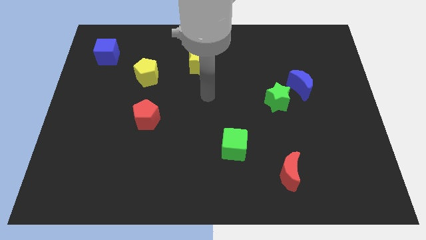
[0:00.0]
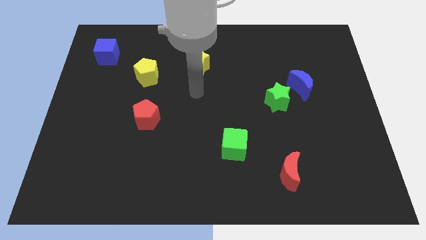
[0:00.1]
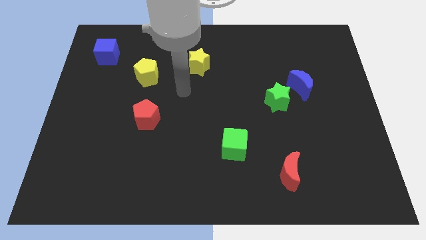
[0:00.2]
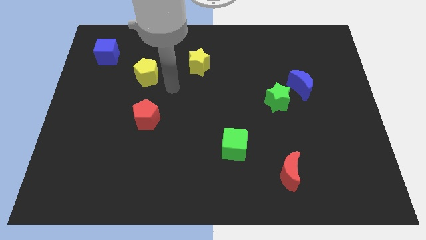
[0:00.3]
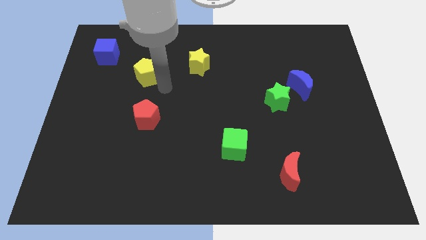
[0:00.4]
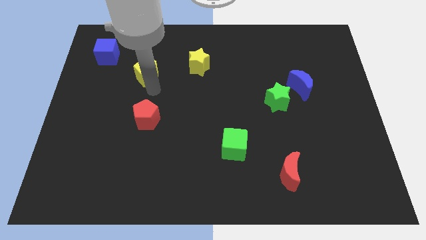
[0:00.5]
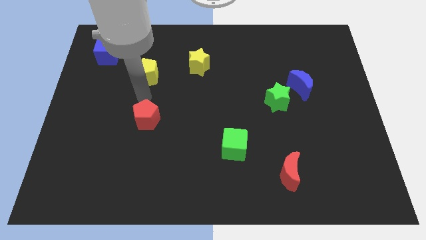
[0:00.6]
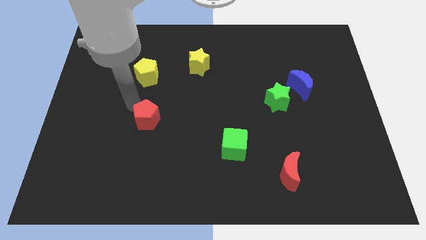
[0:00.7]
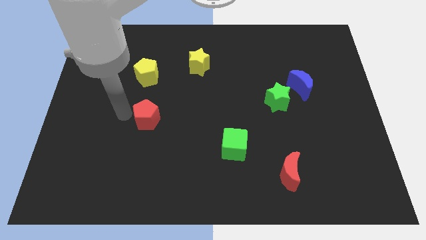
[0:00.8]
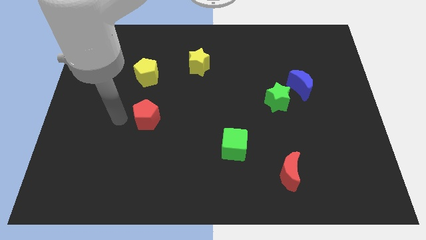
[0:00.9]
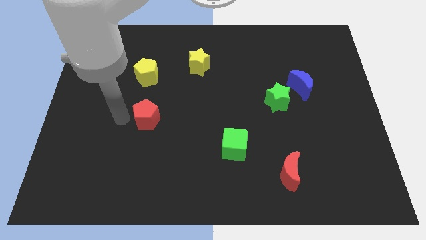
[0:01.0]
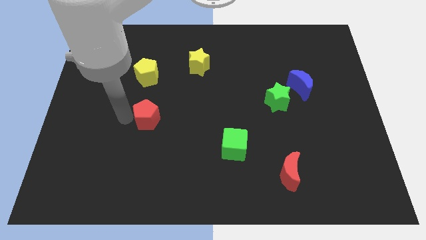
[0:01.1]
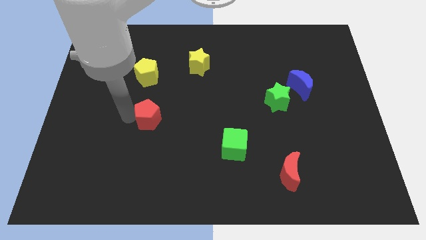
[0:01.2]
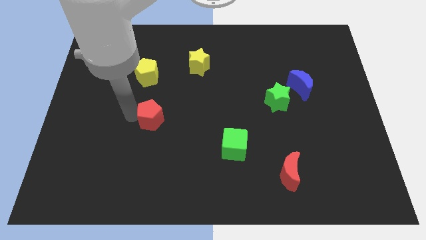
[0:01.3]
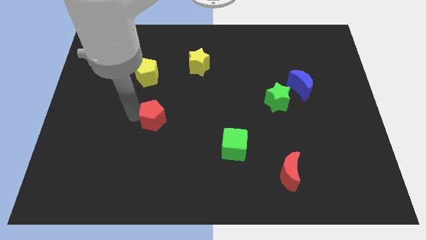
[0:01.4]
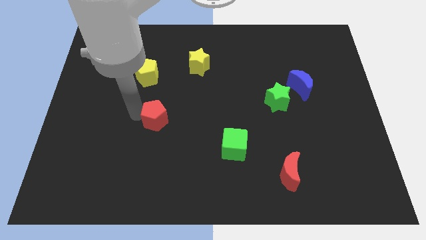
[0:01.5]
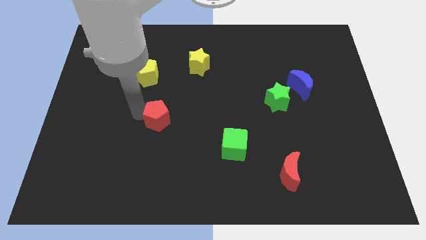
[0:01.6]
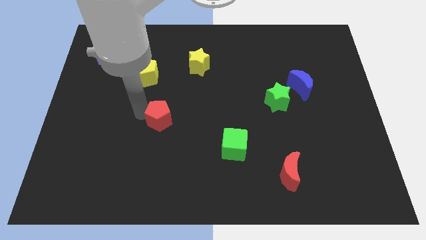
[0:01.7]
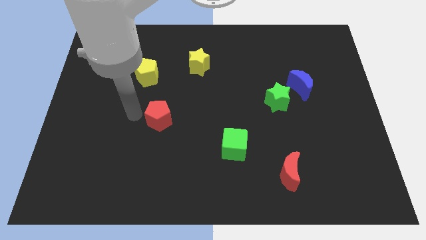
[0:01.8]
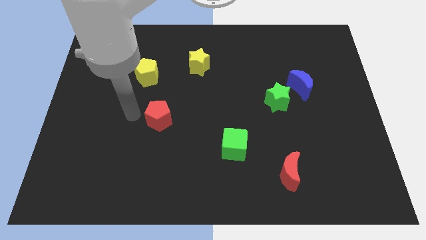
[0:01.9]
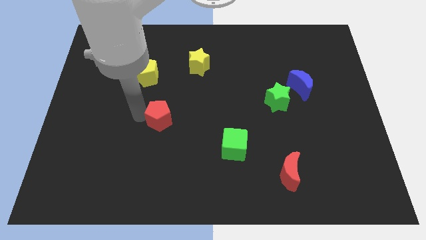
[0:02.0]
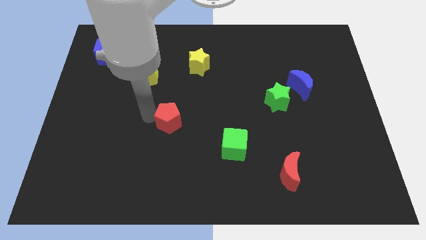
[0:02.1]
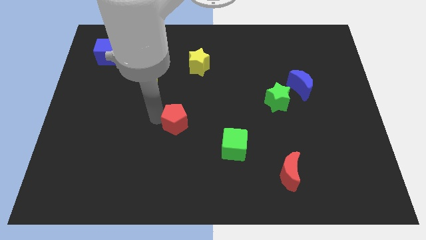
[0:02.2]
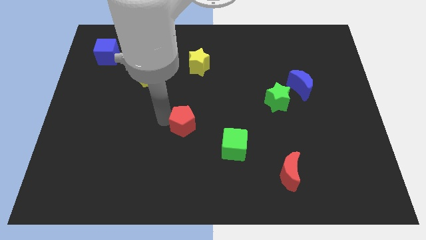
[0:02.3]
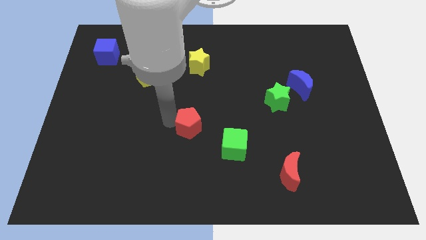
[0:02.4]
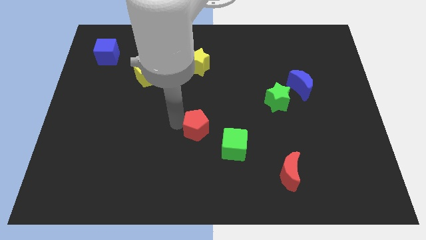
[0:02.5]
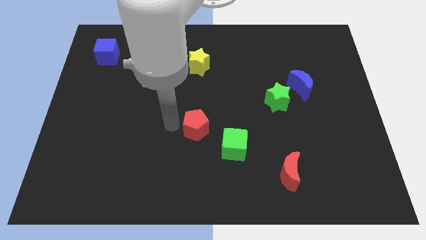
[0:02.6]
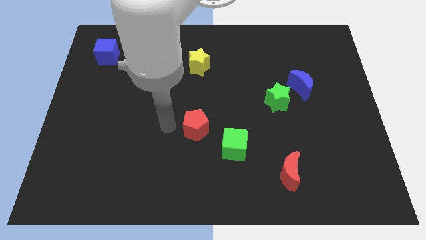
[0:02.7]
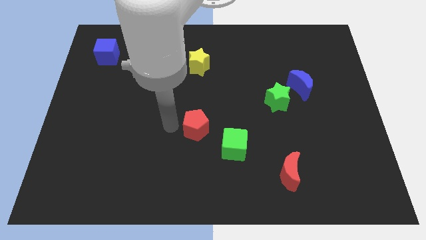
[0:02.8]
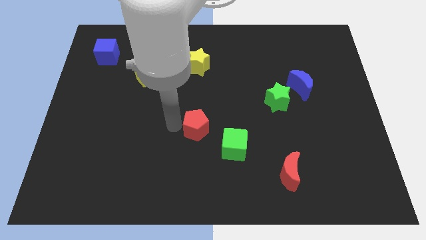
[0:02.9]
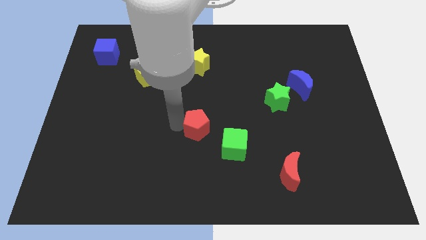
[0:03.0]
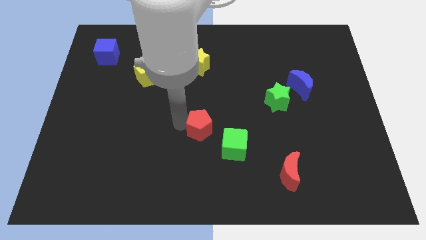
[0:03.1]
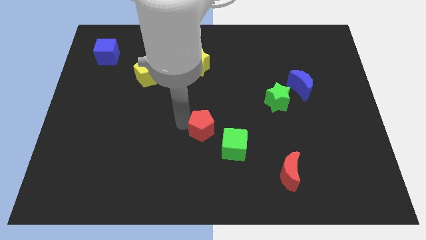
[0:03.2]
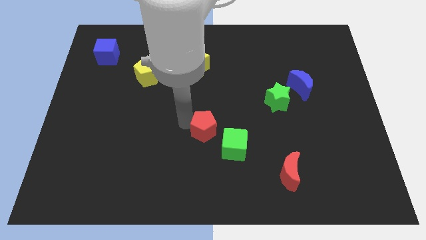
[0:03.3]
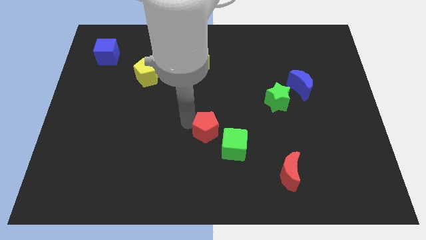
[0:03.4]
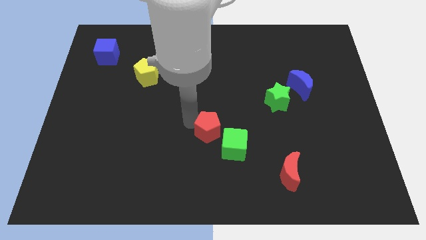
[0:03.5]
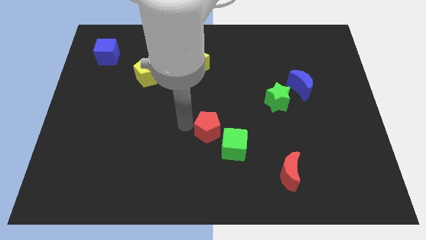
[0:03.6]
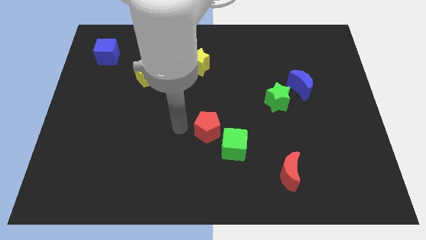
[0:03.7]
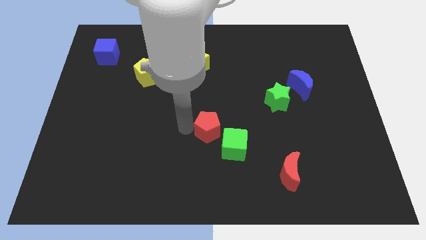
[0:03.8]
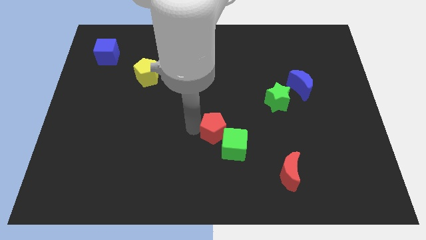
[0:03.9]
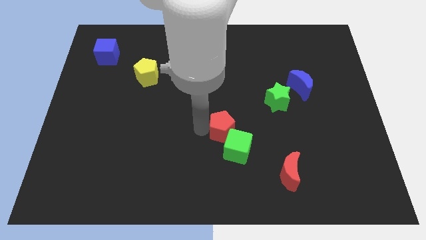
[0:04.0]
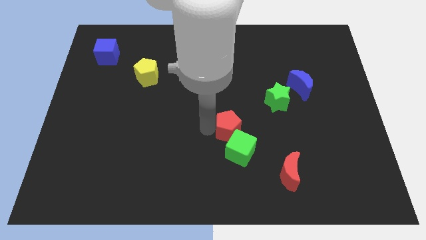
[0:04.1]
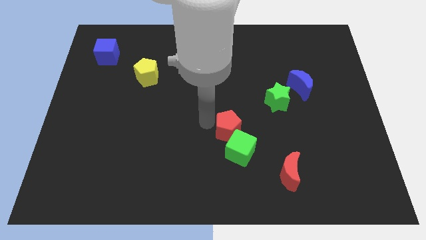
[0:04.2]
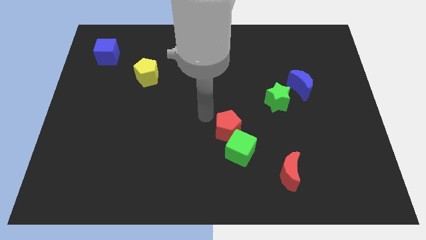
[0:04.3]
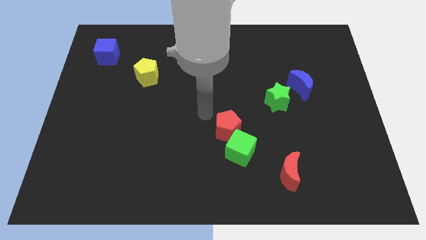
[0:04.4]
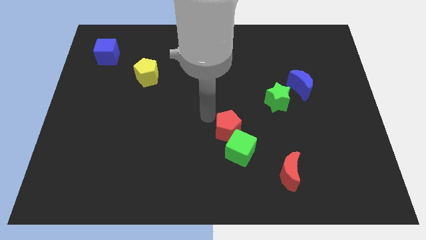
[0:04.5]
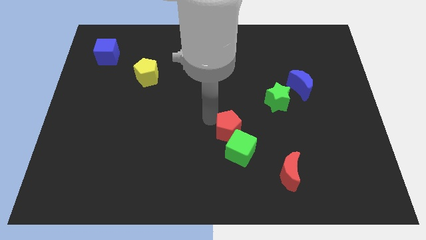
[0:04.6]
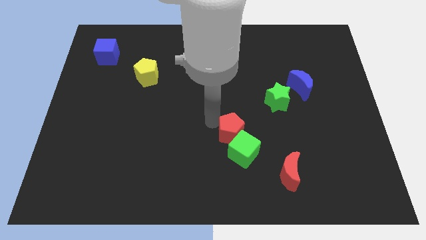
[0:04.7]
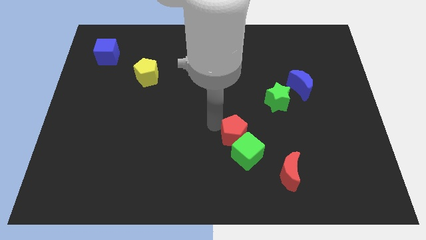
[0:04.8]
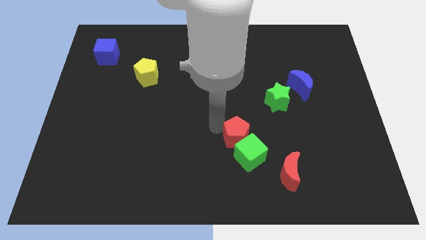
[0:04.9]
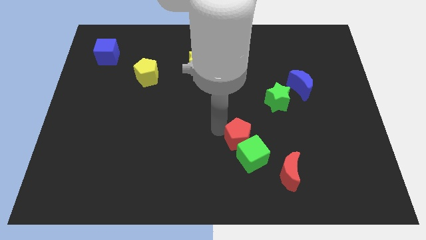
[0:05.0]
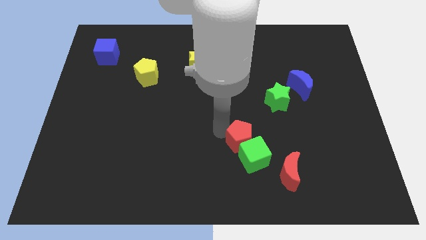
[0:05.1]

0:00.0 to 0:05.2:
push the red pentagon diagonally up and to the left of the red moon

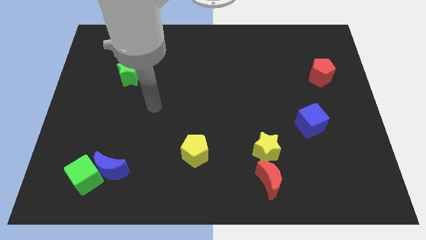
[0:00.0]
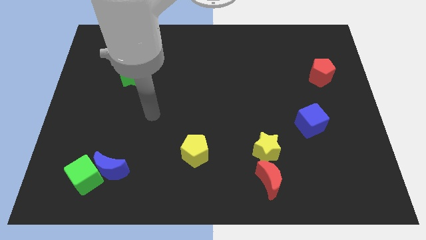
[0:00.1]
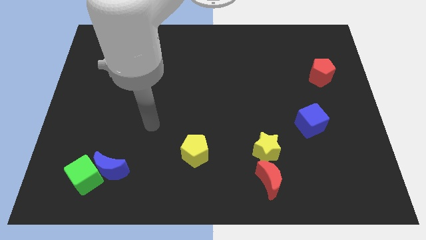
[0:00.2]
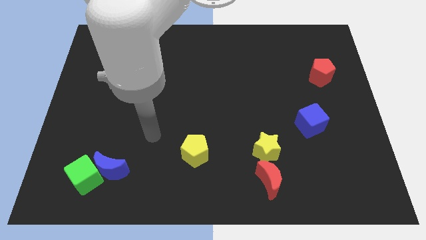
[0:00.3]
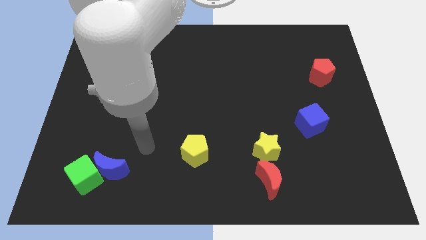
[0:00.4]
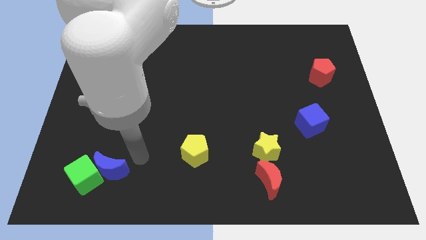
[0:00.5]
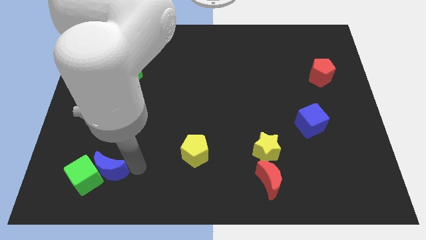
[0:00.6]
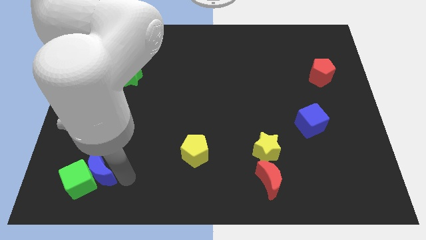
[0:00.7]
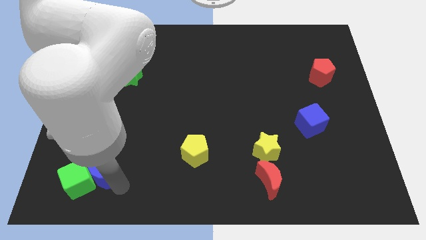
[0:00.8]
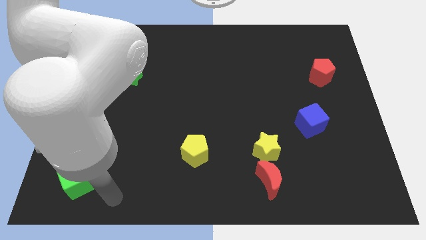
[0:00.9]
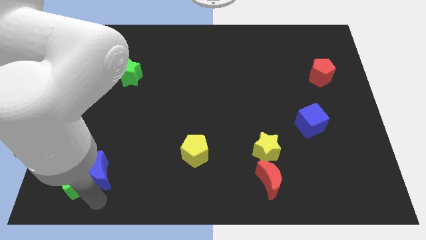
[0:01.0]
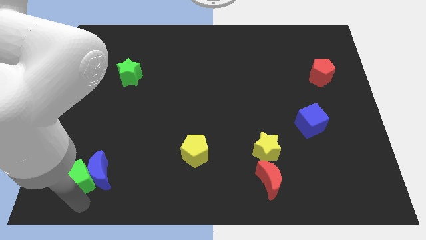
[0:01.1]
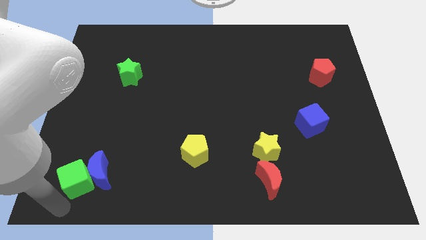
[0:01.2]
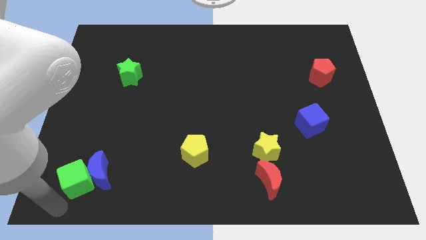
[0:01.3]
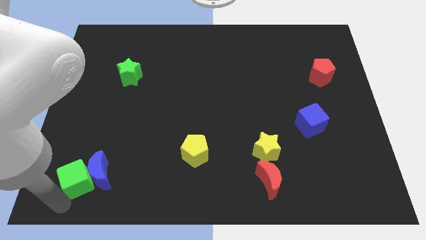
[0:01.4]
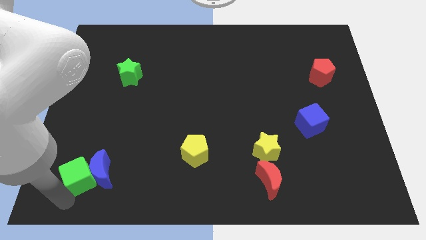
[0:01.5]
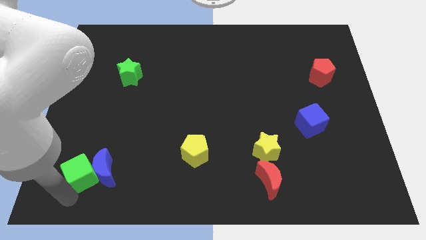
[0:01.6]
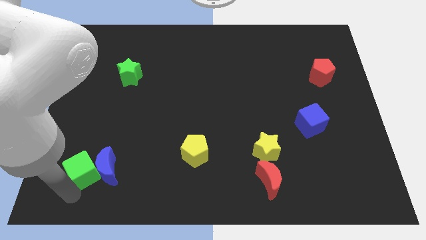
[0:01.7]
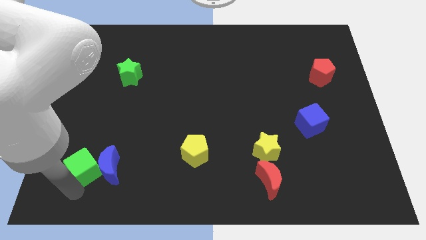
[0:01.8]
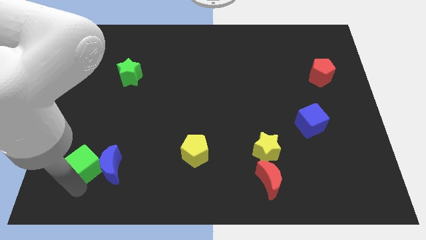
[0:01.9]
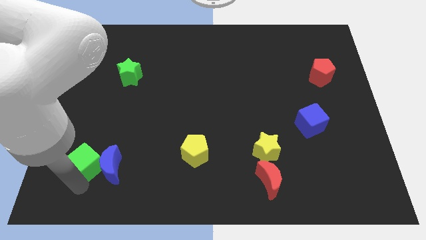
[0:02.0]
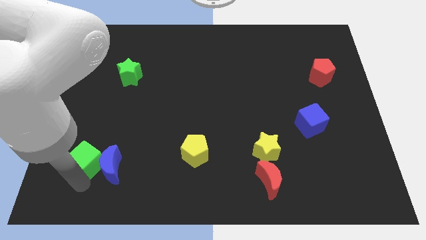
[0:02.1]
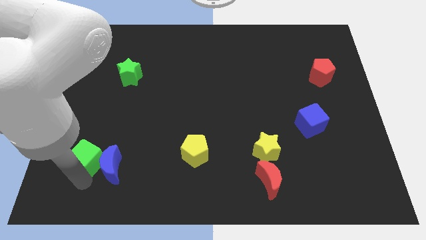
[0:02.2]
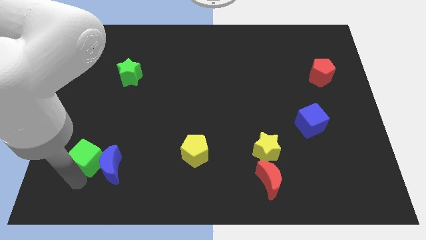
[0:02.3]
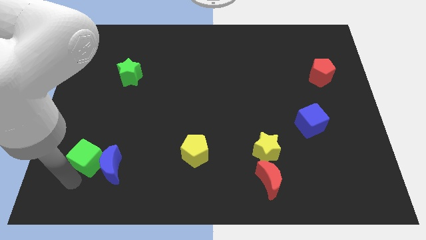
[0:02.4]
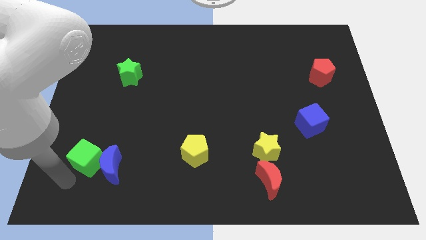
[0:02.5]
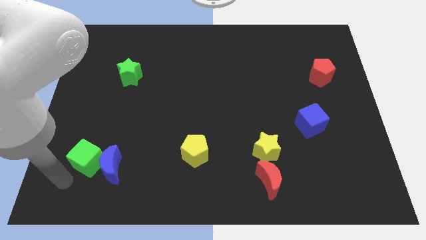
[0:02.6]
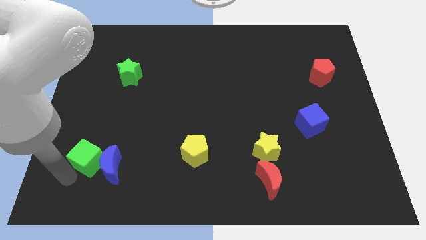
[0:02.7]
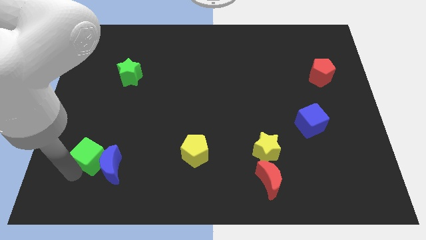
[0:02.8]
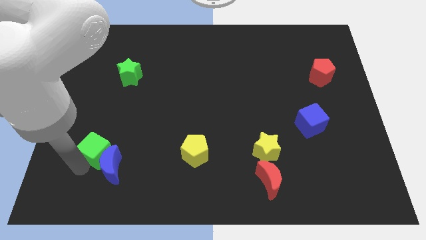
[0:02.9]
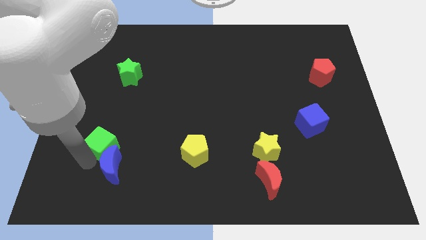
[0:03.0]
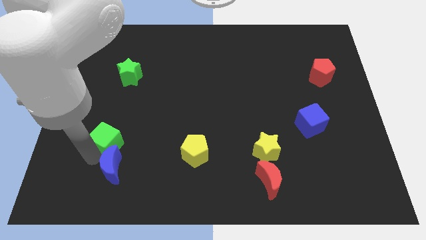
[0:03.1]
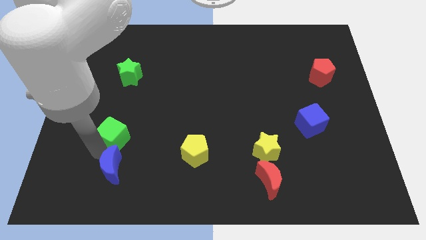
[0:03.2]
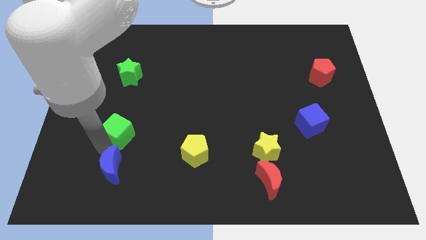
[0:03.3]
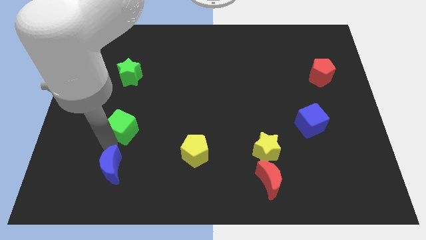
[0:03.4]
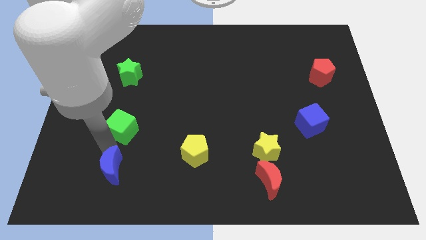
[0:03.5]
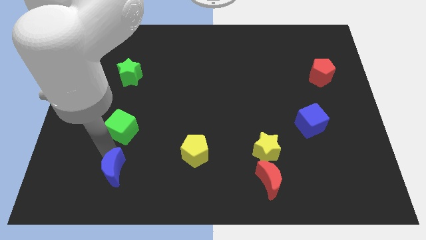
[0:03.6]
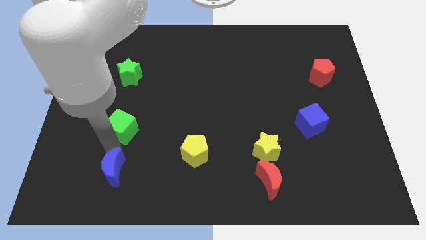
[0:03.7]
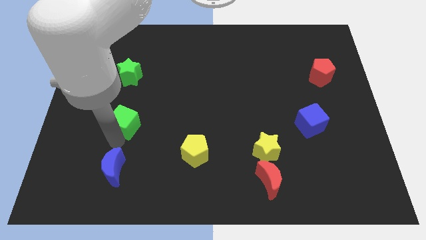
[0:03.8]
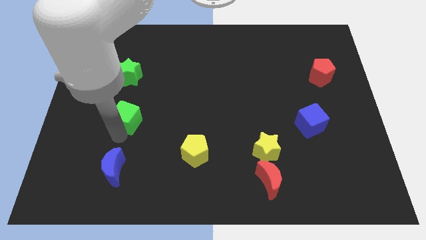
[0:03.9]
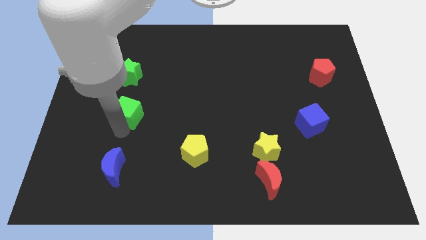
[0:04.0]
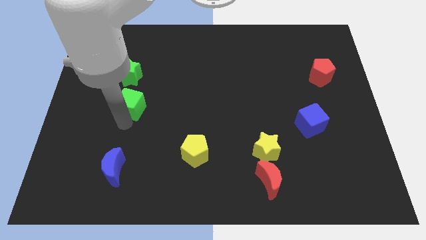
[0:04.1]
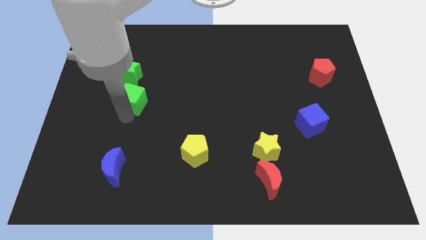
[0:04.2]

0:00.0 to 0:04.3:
move the green cube diagonally down and to the right of the green star
